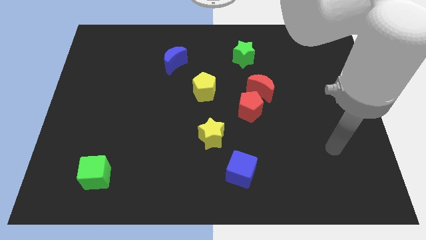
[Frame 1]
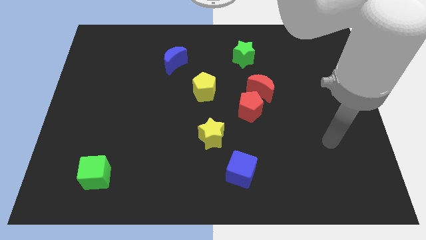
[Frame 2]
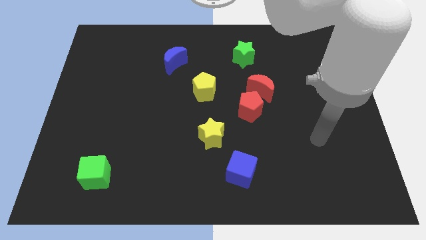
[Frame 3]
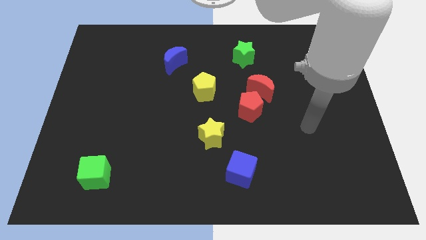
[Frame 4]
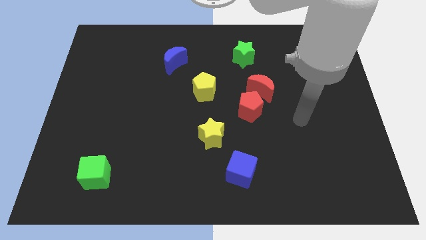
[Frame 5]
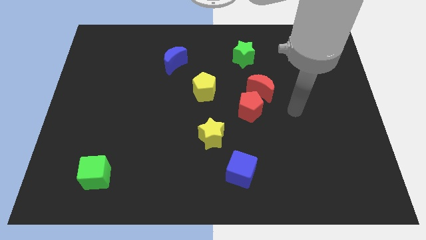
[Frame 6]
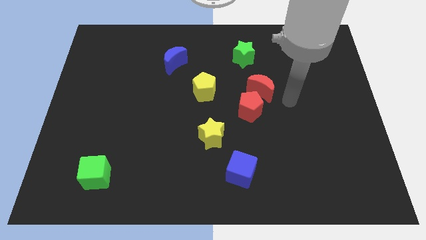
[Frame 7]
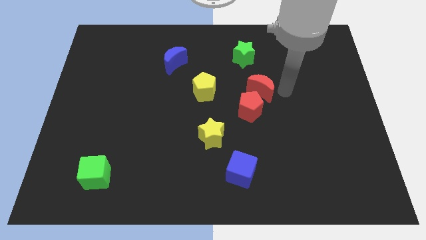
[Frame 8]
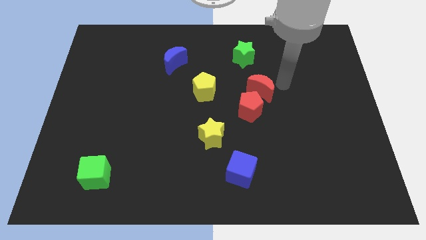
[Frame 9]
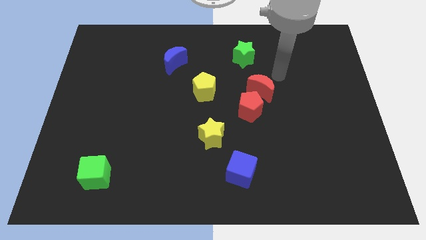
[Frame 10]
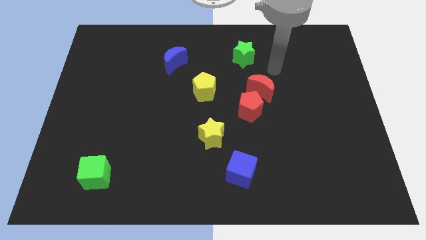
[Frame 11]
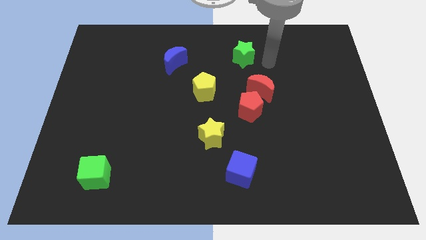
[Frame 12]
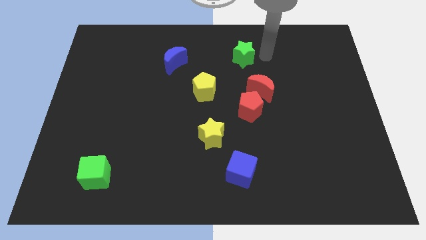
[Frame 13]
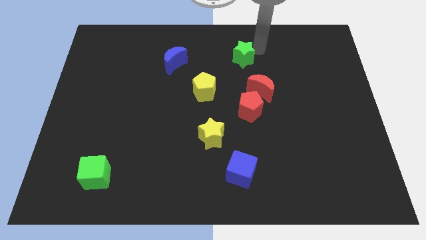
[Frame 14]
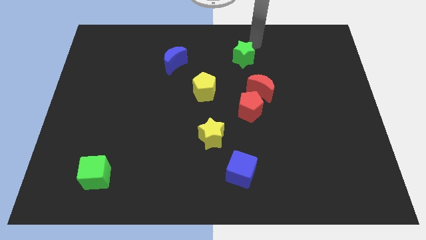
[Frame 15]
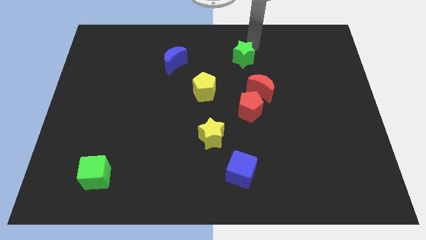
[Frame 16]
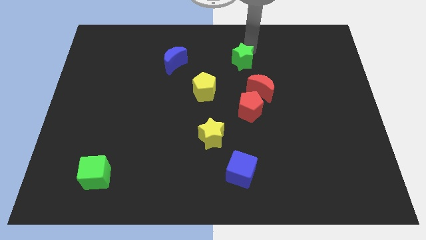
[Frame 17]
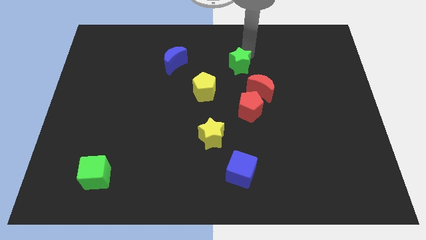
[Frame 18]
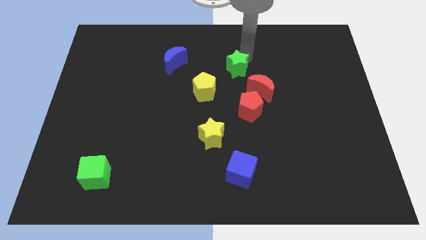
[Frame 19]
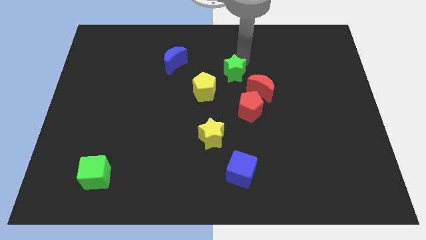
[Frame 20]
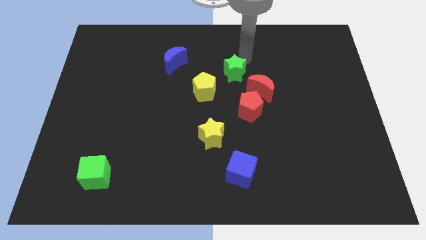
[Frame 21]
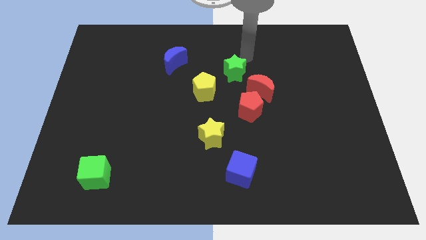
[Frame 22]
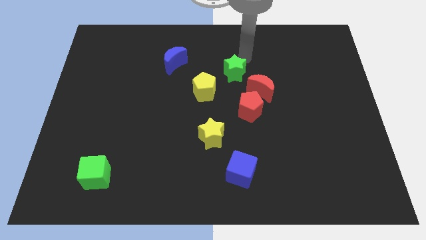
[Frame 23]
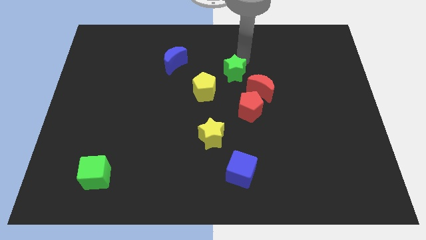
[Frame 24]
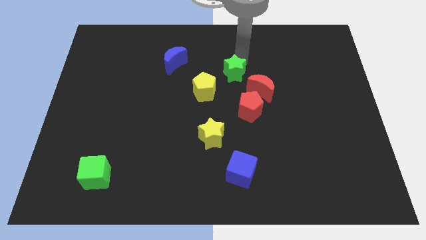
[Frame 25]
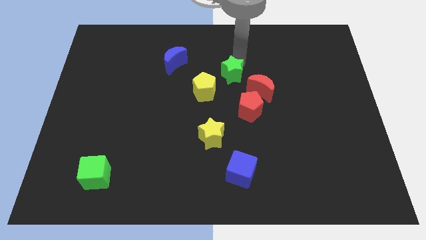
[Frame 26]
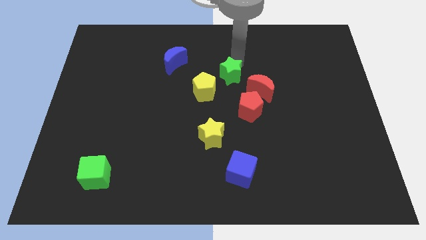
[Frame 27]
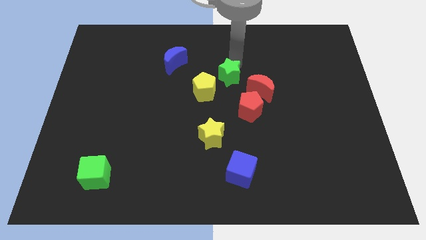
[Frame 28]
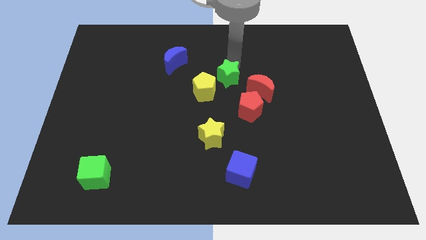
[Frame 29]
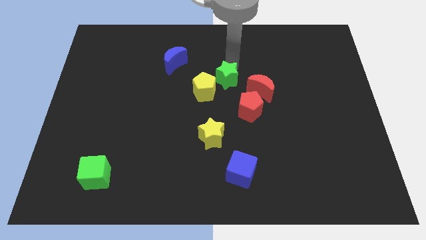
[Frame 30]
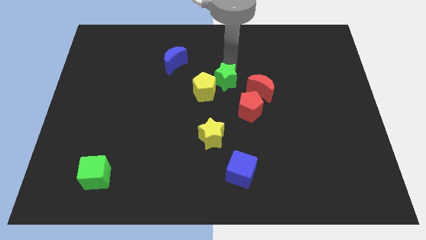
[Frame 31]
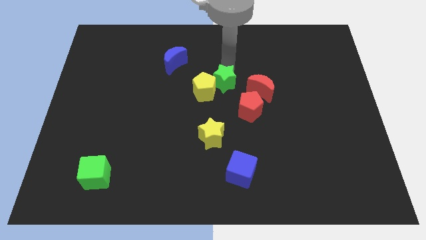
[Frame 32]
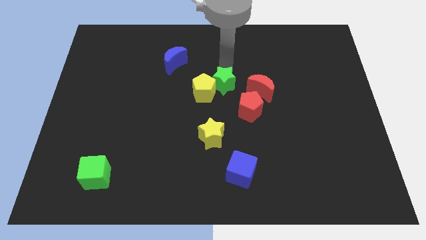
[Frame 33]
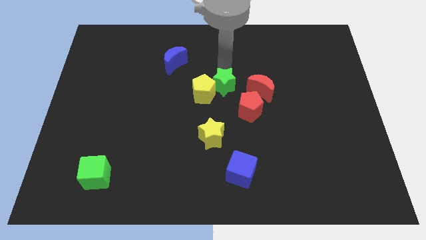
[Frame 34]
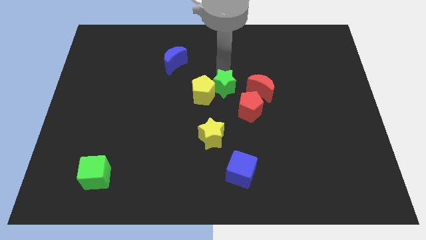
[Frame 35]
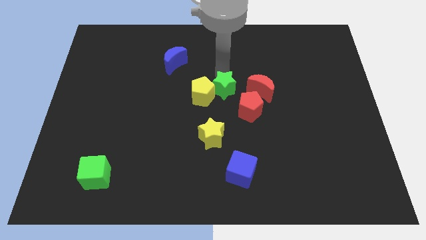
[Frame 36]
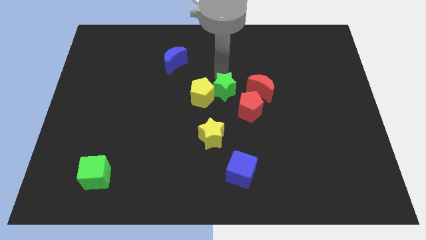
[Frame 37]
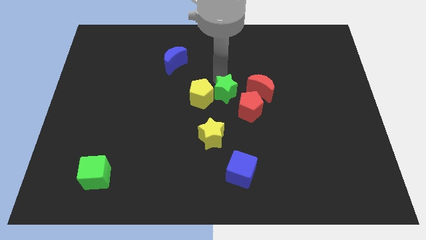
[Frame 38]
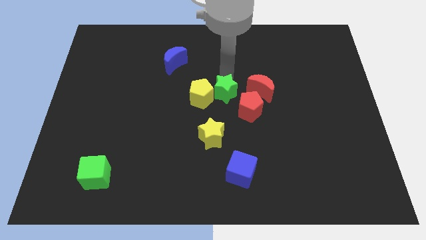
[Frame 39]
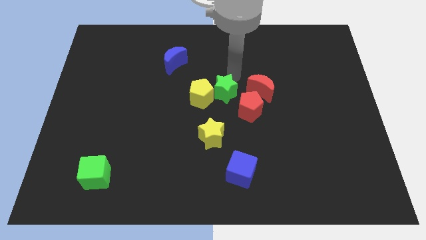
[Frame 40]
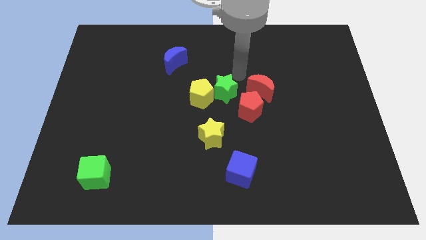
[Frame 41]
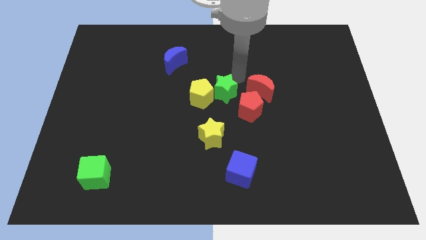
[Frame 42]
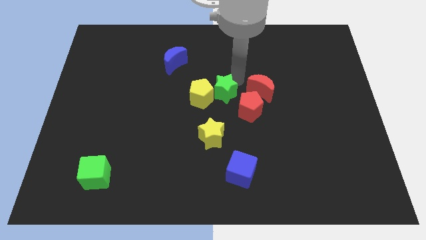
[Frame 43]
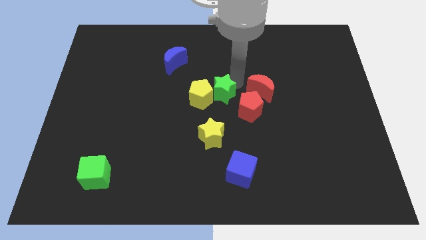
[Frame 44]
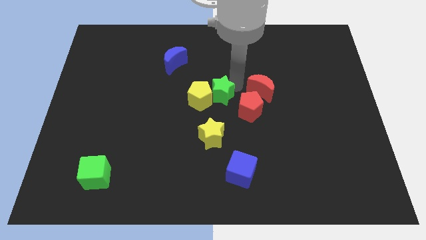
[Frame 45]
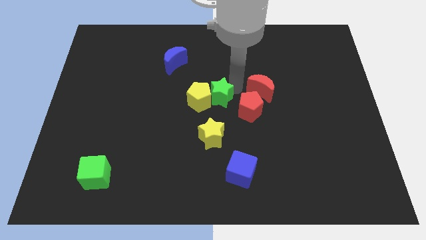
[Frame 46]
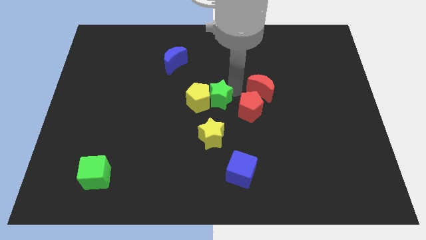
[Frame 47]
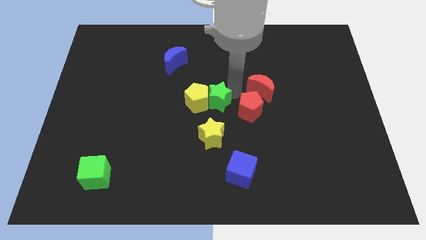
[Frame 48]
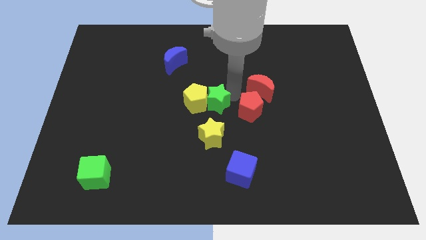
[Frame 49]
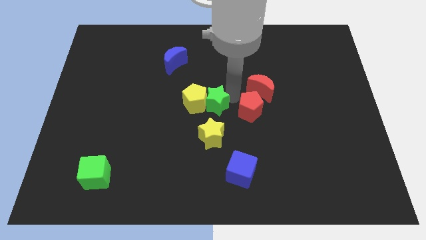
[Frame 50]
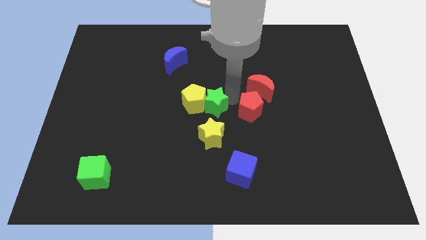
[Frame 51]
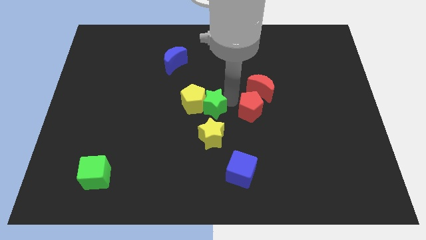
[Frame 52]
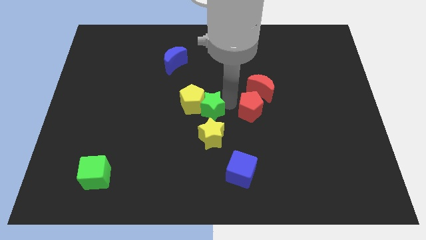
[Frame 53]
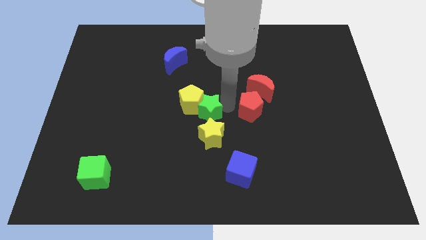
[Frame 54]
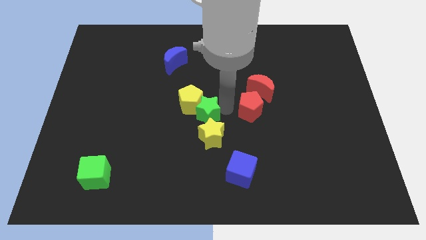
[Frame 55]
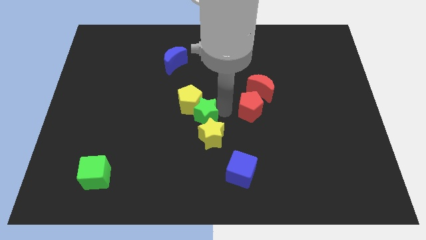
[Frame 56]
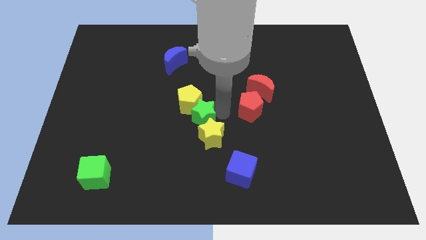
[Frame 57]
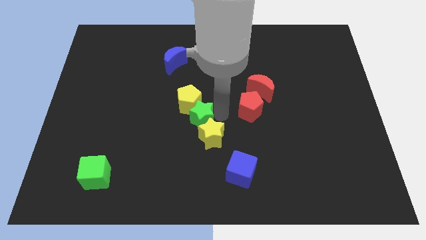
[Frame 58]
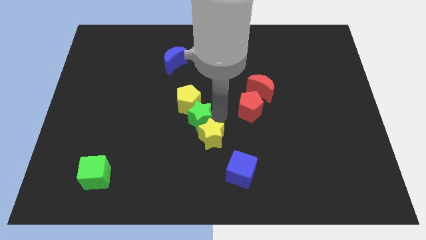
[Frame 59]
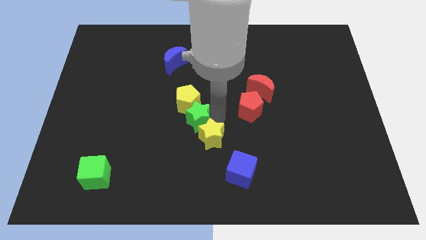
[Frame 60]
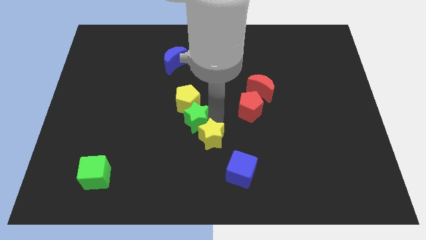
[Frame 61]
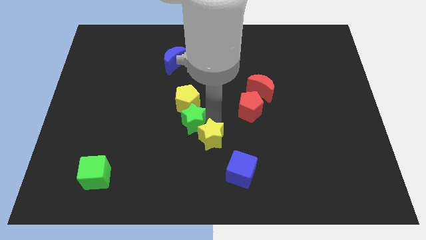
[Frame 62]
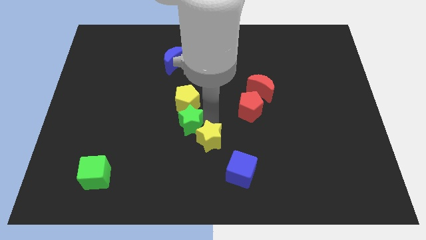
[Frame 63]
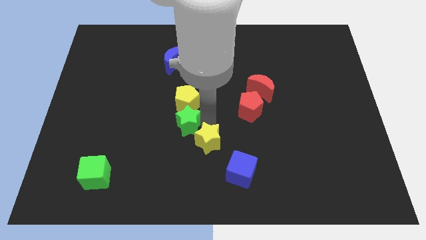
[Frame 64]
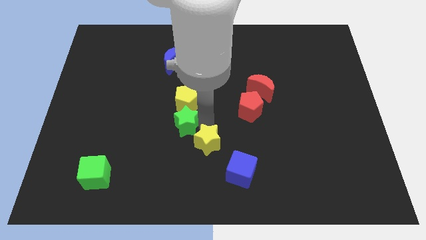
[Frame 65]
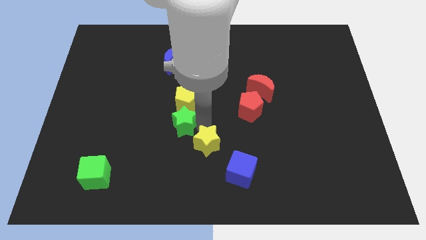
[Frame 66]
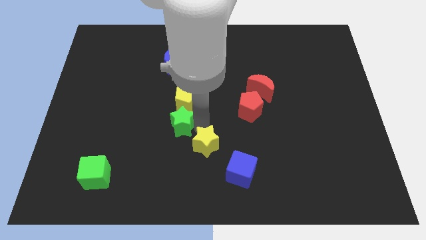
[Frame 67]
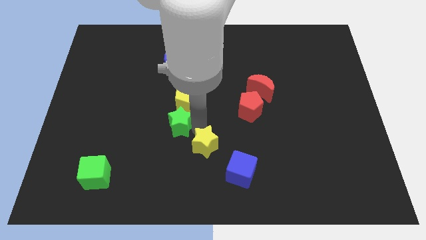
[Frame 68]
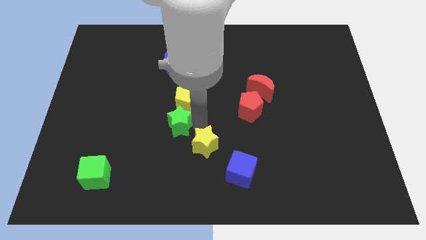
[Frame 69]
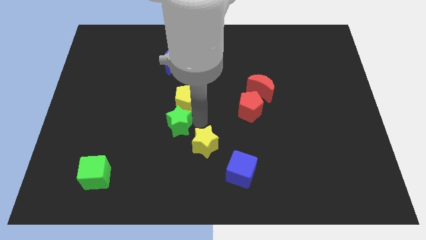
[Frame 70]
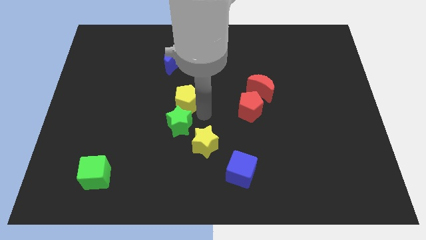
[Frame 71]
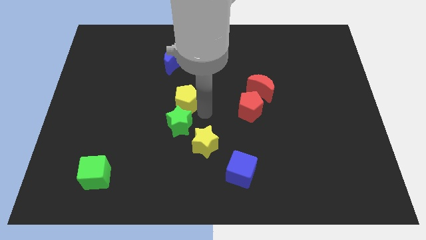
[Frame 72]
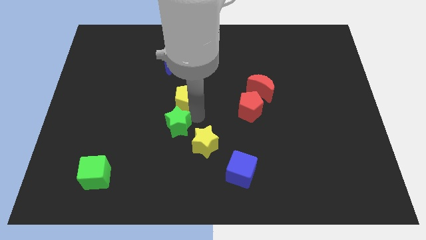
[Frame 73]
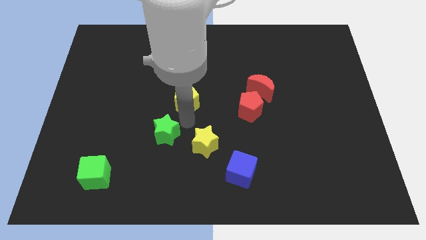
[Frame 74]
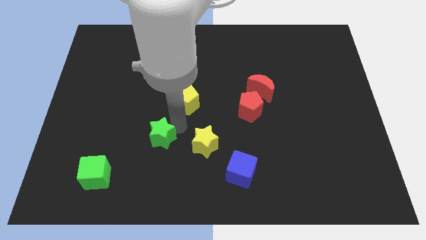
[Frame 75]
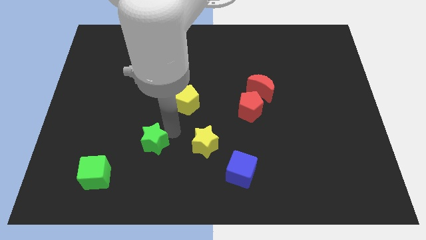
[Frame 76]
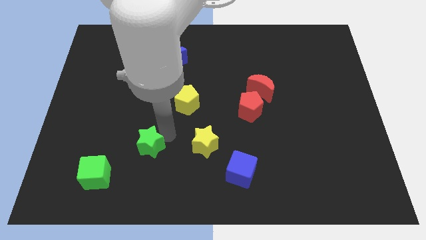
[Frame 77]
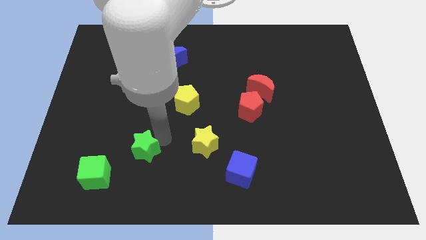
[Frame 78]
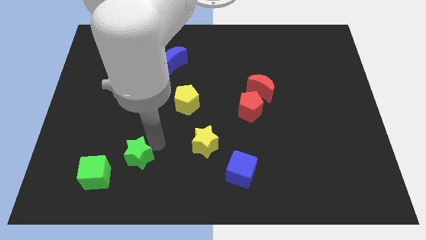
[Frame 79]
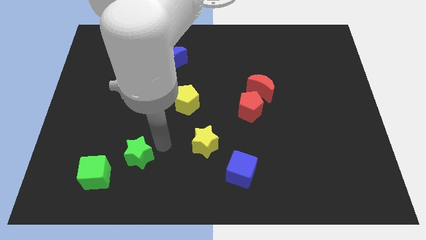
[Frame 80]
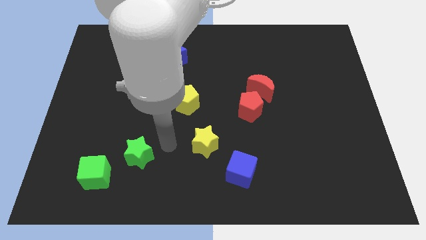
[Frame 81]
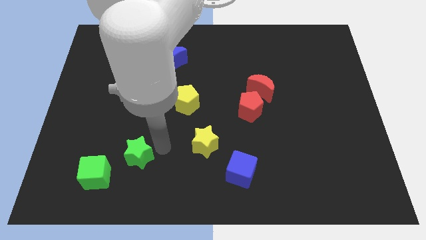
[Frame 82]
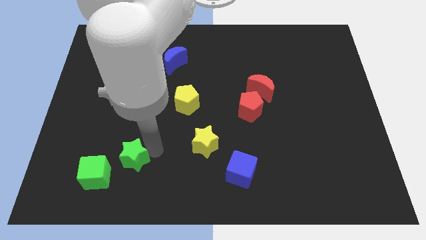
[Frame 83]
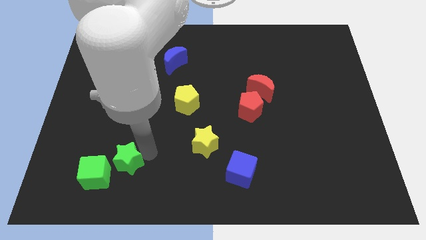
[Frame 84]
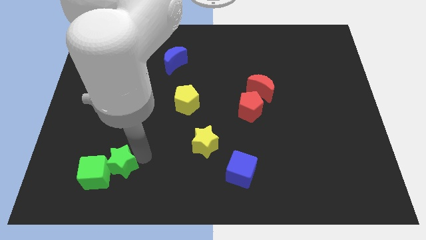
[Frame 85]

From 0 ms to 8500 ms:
slide the green star to the green cube
